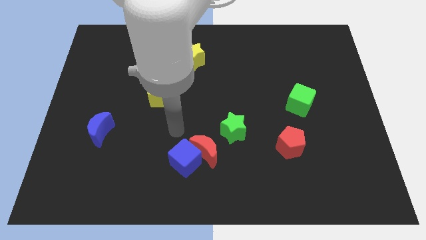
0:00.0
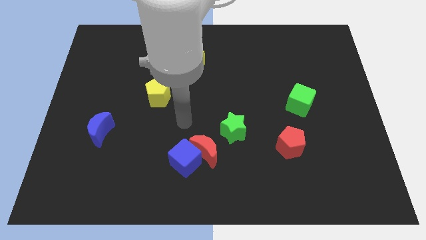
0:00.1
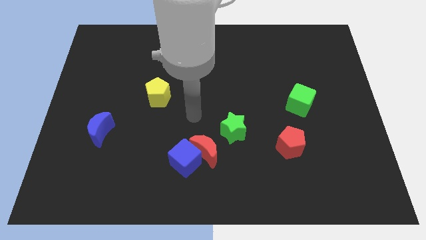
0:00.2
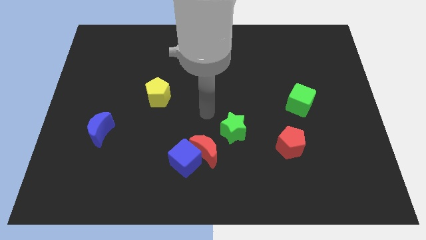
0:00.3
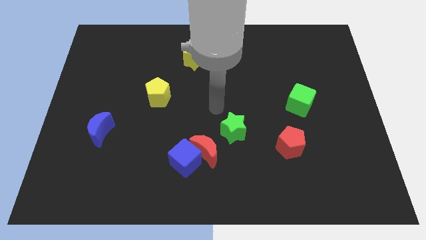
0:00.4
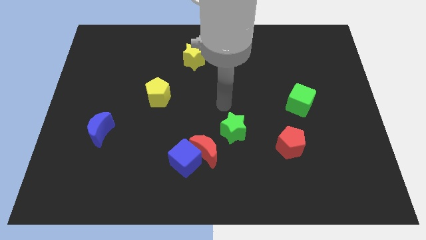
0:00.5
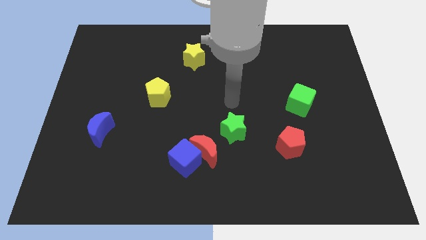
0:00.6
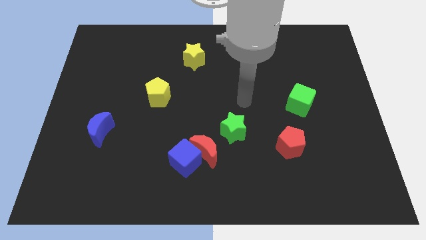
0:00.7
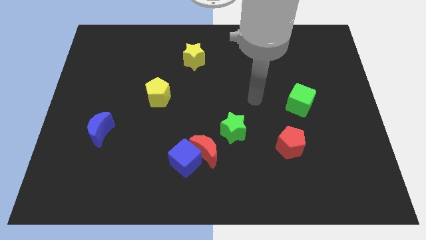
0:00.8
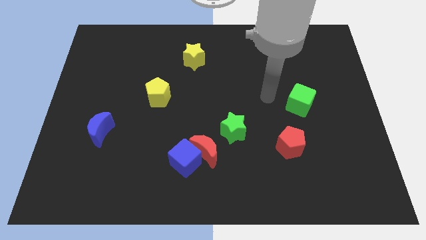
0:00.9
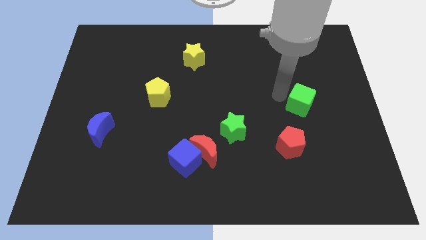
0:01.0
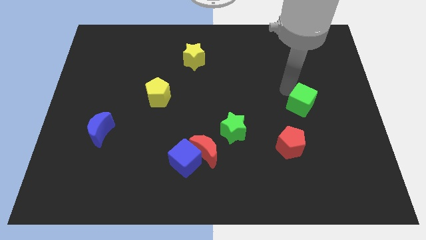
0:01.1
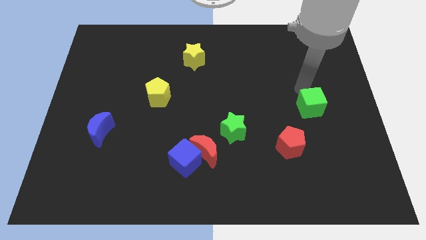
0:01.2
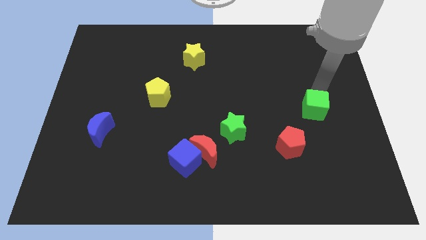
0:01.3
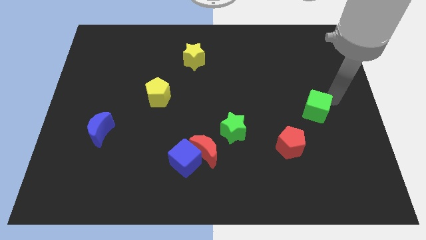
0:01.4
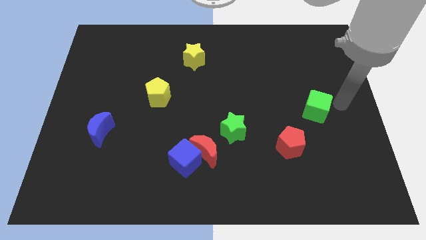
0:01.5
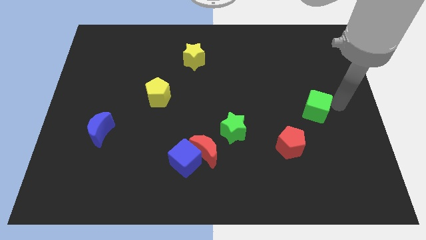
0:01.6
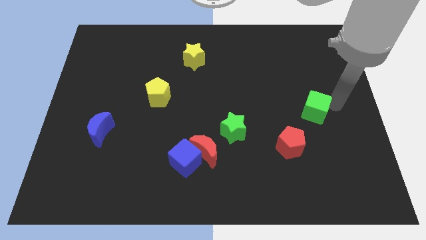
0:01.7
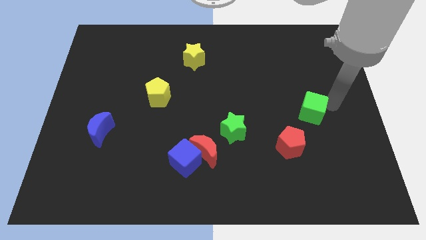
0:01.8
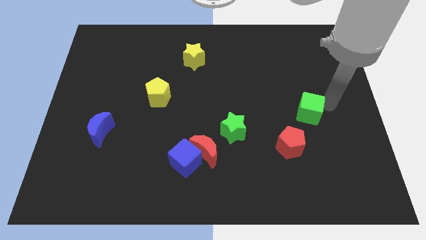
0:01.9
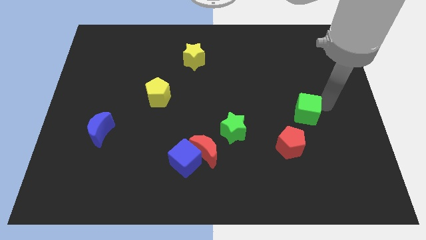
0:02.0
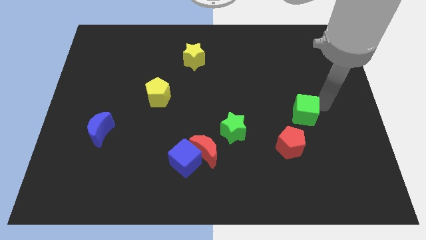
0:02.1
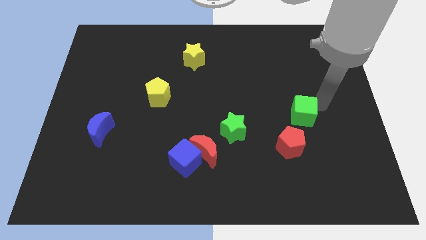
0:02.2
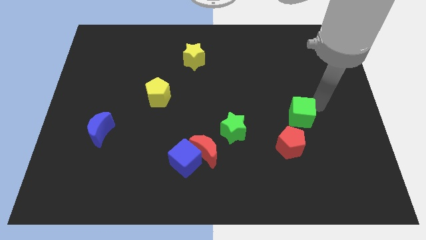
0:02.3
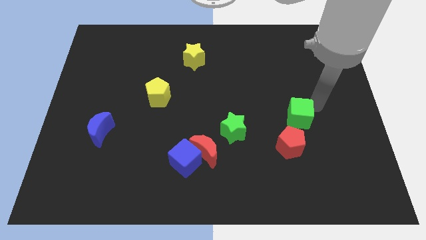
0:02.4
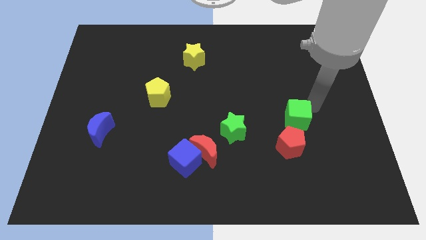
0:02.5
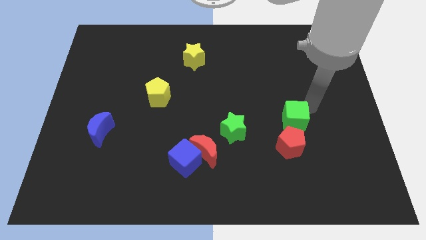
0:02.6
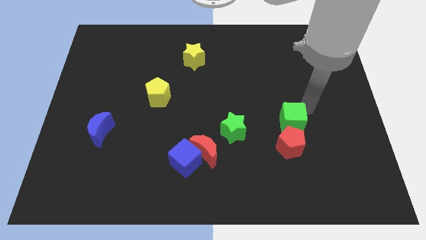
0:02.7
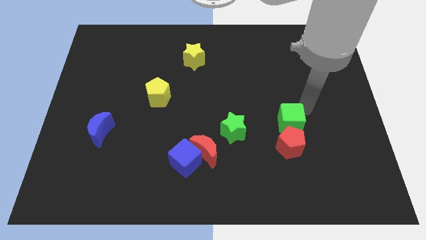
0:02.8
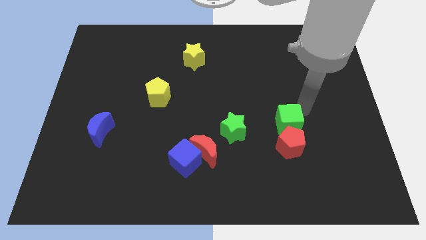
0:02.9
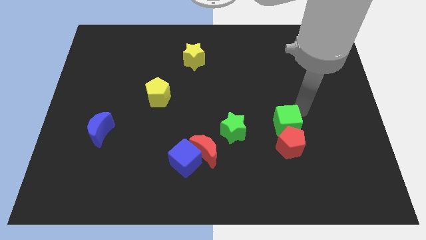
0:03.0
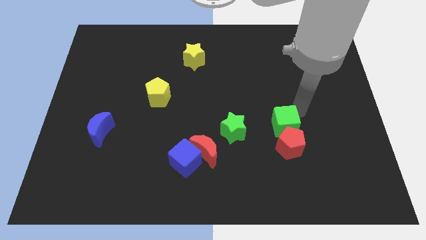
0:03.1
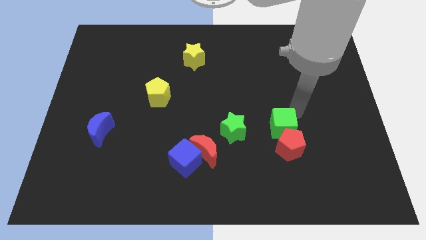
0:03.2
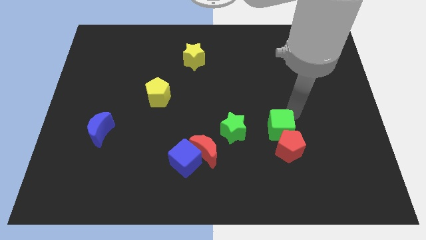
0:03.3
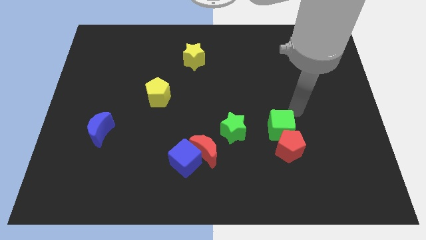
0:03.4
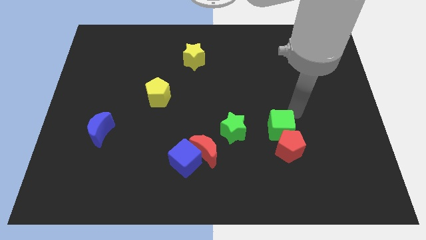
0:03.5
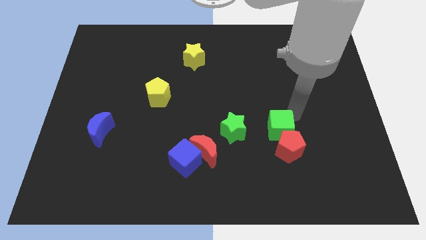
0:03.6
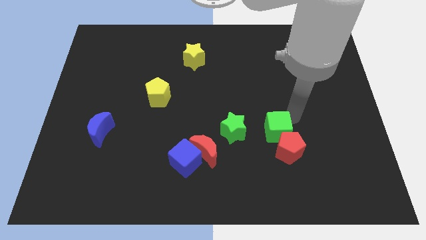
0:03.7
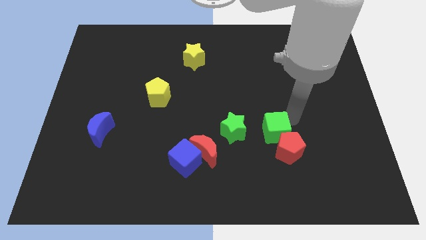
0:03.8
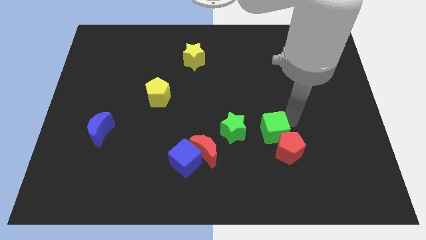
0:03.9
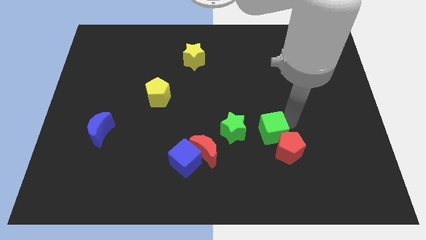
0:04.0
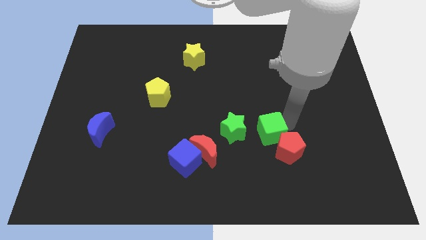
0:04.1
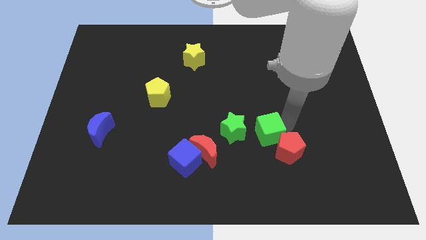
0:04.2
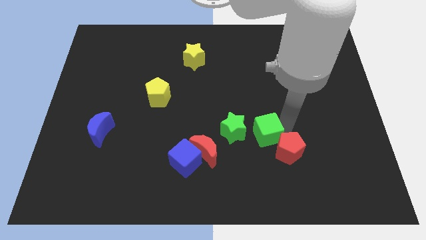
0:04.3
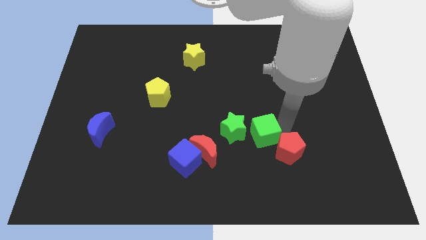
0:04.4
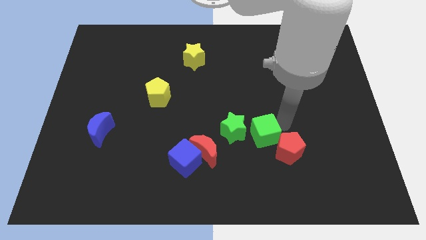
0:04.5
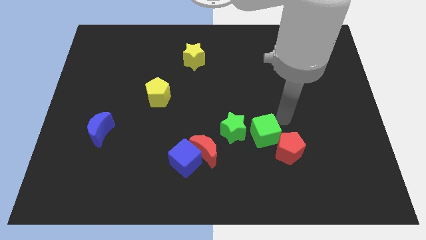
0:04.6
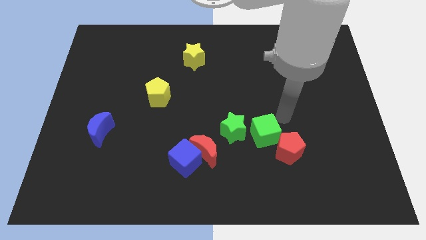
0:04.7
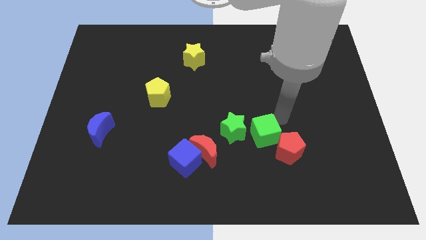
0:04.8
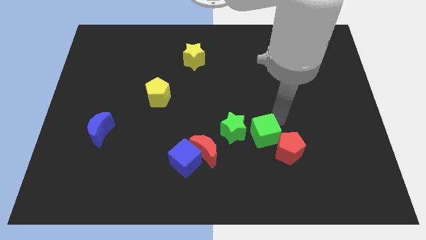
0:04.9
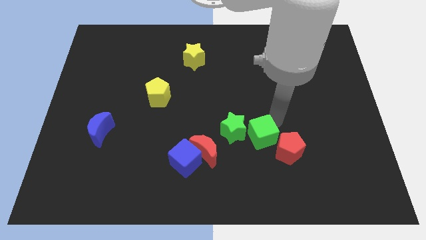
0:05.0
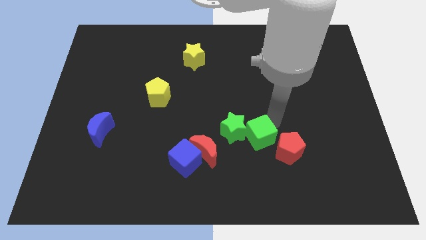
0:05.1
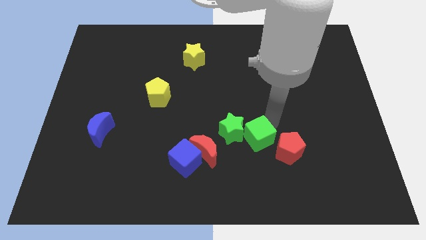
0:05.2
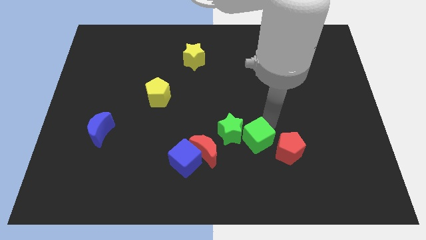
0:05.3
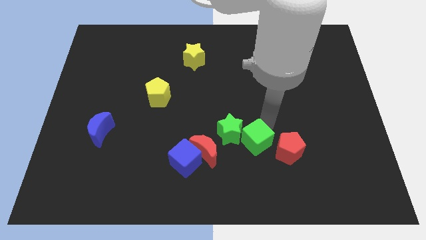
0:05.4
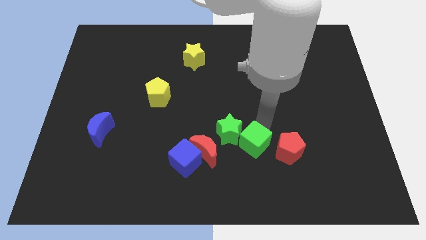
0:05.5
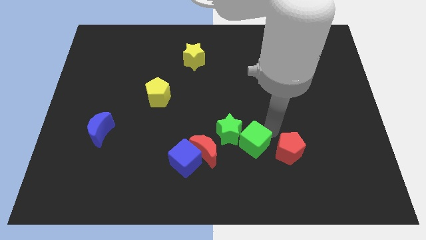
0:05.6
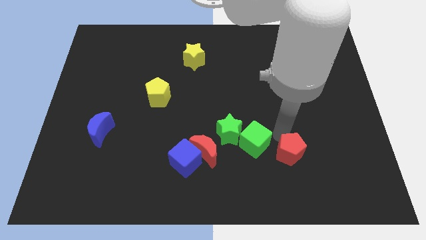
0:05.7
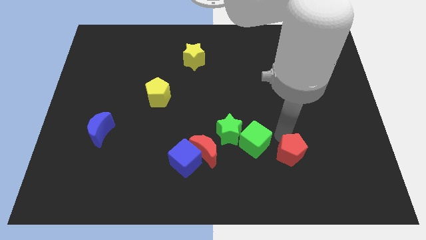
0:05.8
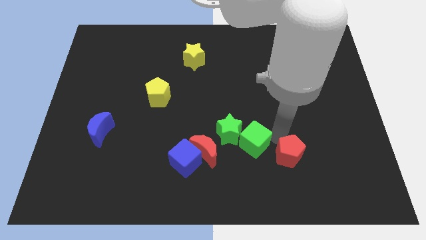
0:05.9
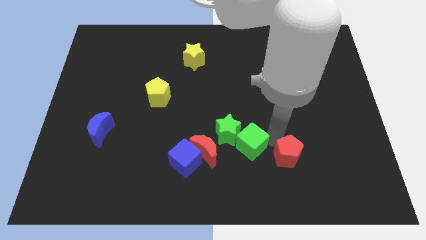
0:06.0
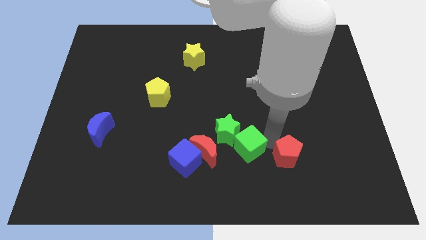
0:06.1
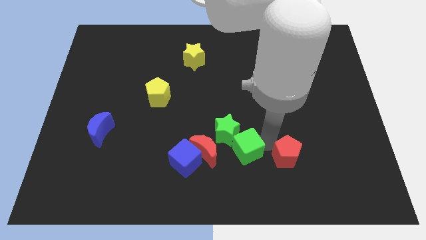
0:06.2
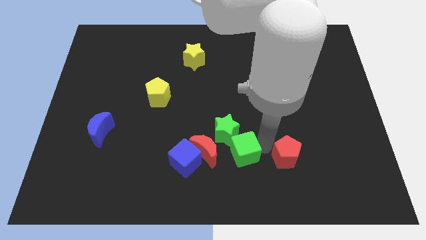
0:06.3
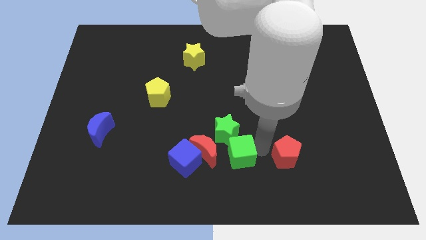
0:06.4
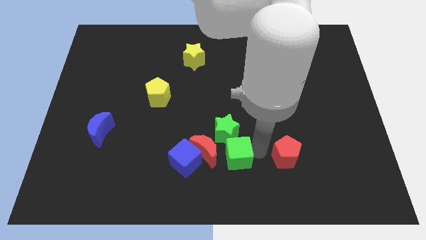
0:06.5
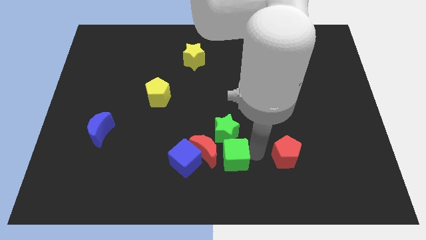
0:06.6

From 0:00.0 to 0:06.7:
put the green cube towards the red moon

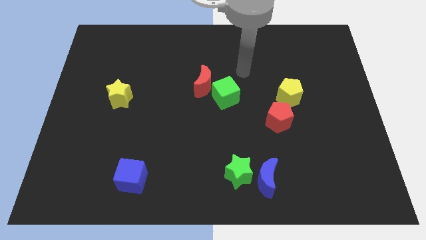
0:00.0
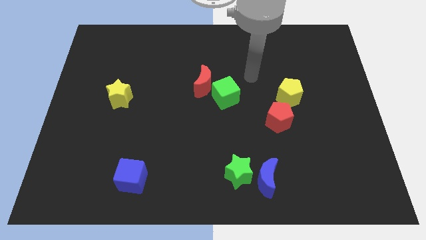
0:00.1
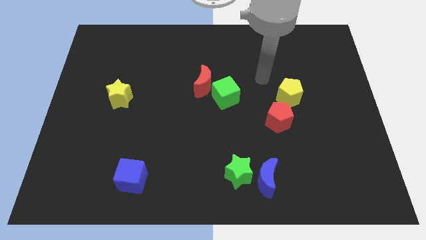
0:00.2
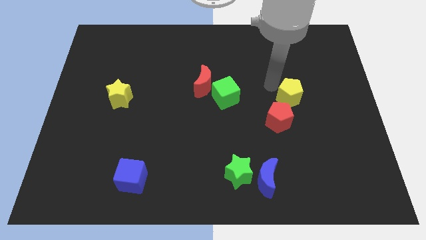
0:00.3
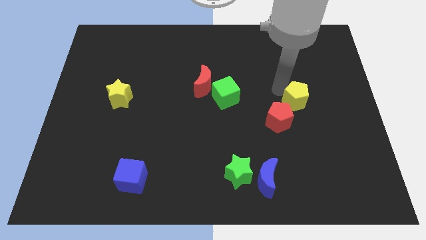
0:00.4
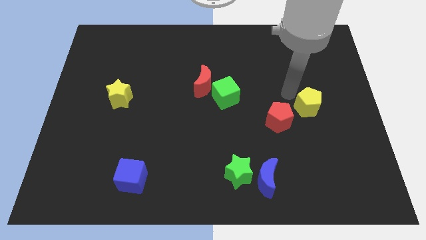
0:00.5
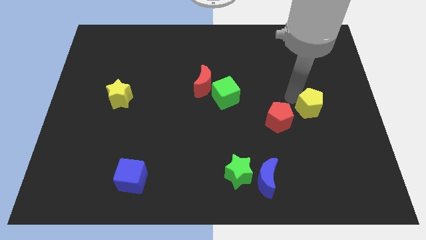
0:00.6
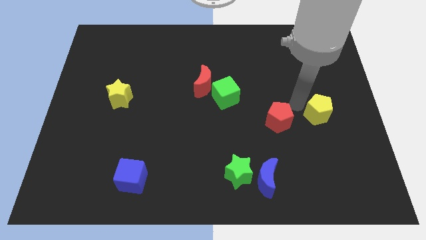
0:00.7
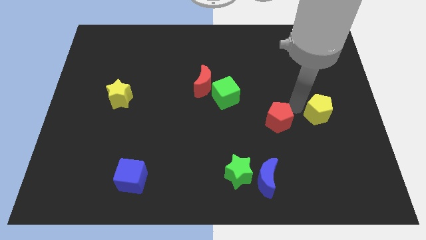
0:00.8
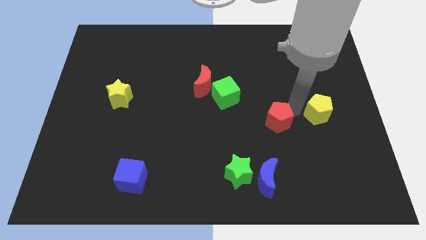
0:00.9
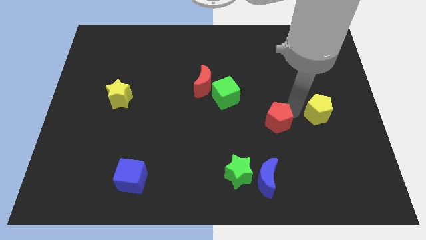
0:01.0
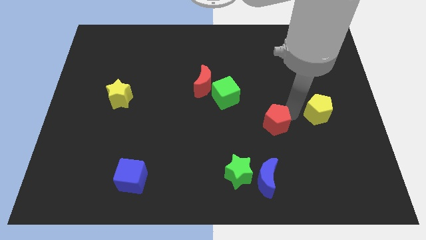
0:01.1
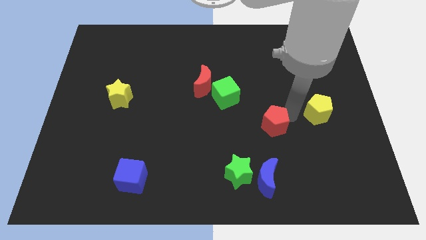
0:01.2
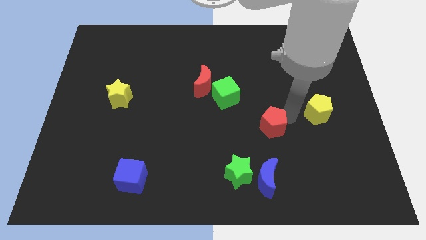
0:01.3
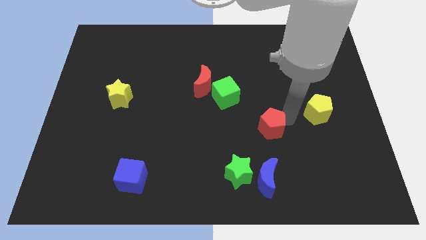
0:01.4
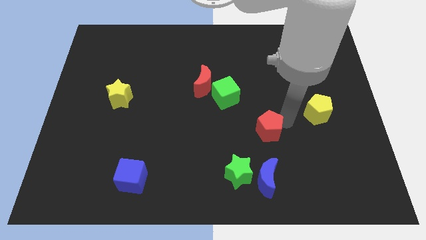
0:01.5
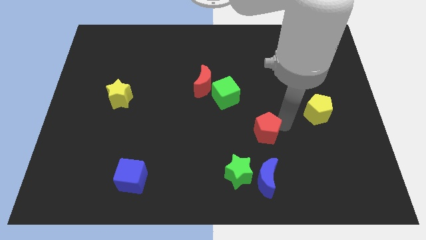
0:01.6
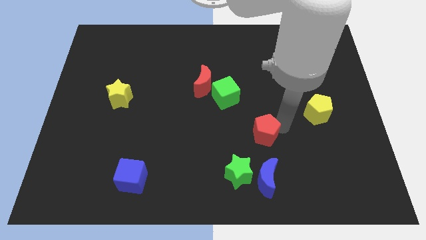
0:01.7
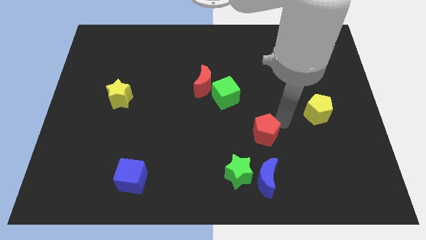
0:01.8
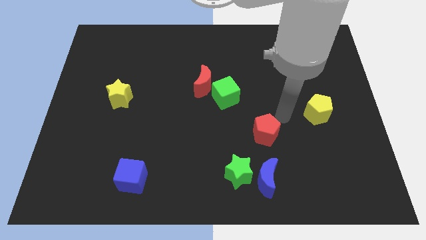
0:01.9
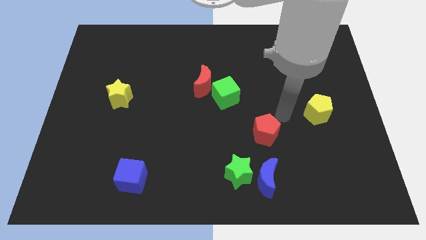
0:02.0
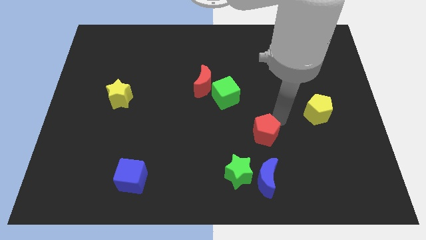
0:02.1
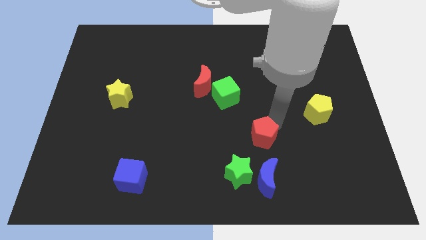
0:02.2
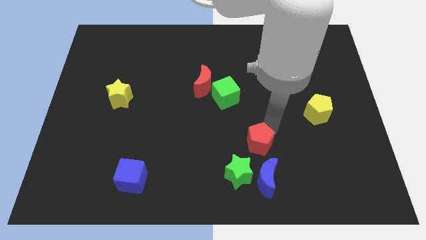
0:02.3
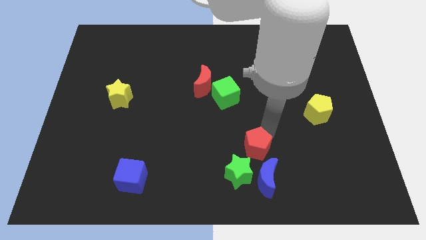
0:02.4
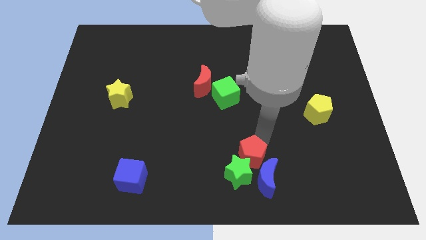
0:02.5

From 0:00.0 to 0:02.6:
put the red pentagon close to the green star
